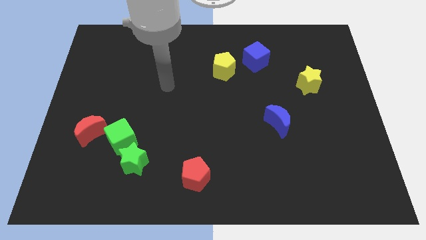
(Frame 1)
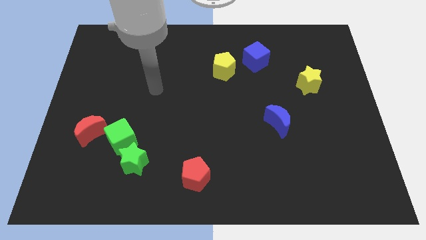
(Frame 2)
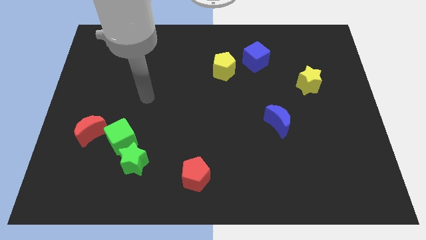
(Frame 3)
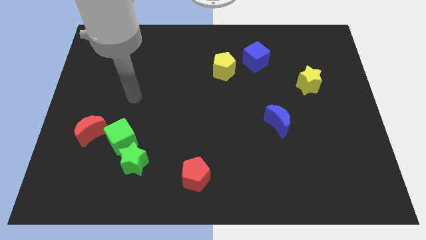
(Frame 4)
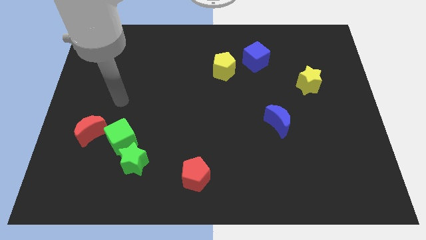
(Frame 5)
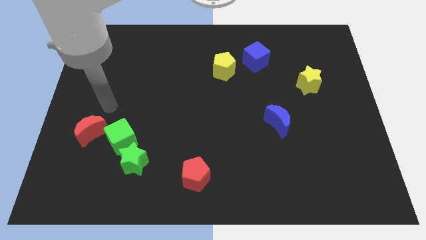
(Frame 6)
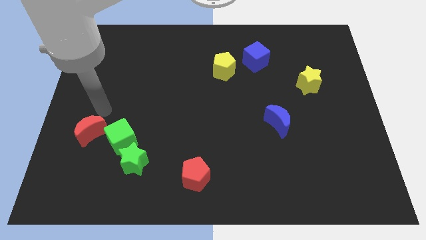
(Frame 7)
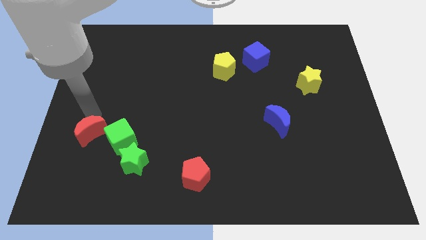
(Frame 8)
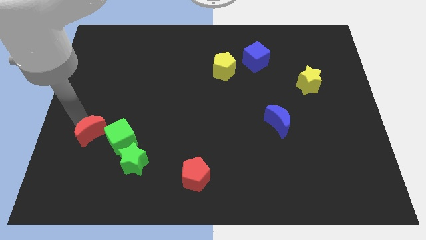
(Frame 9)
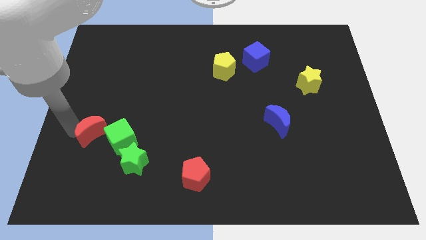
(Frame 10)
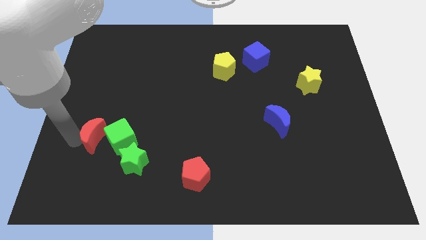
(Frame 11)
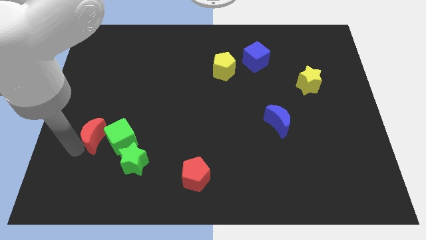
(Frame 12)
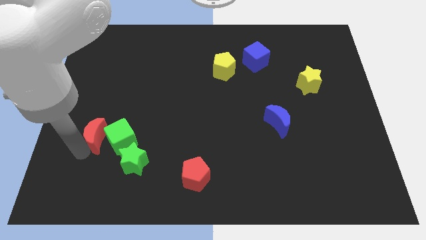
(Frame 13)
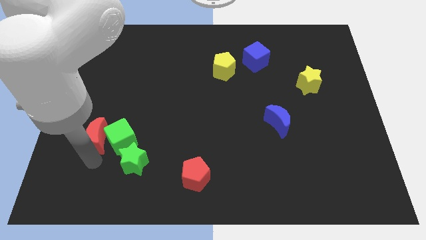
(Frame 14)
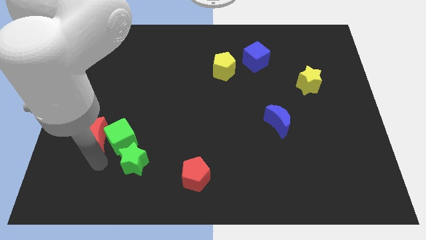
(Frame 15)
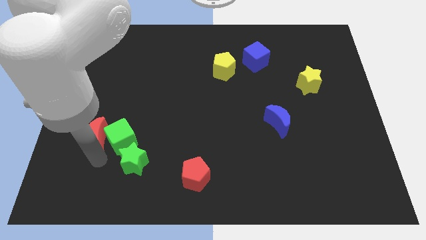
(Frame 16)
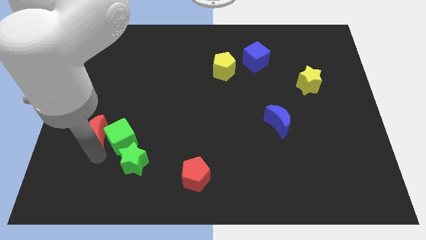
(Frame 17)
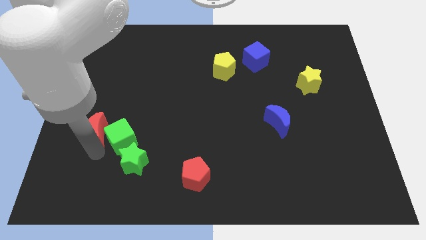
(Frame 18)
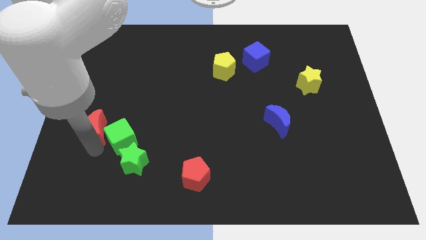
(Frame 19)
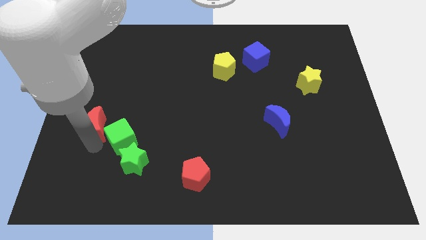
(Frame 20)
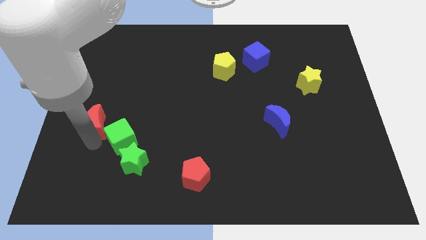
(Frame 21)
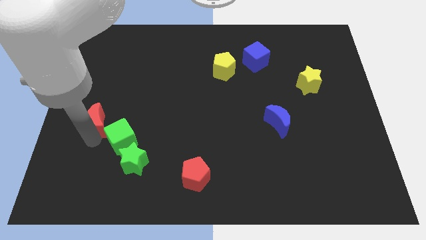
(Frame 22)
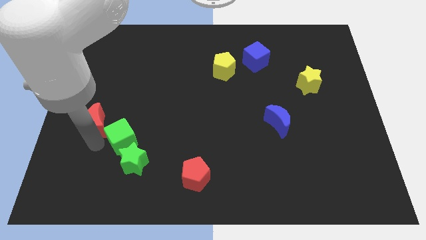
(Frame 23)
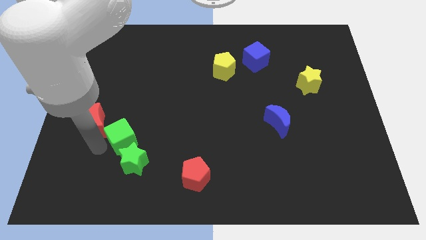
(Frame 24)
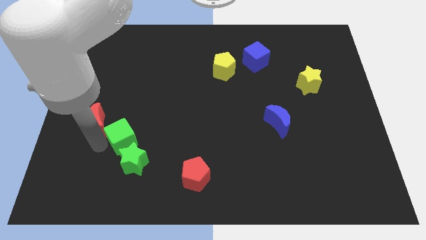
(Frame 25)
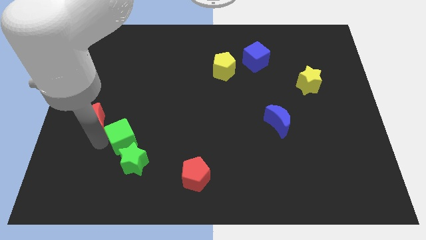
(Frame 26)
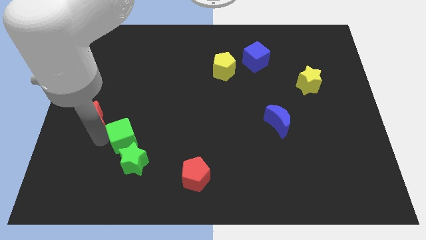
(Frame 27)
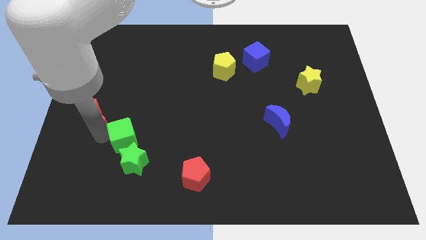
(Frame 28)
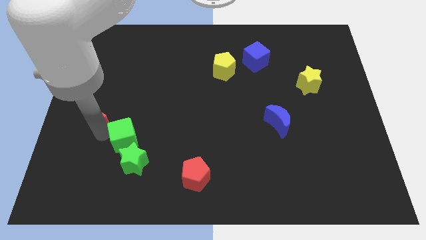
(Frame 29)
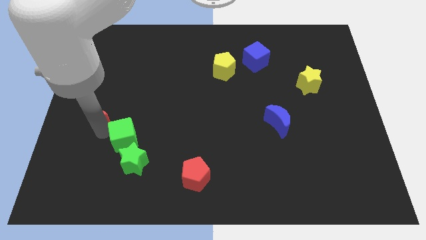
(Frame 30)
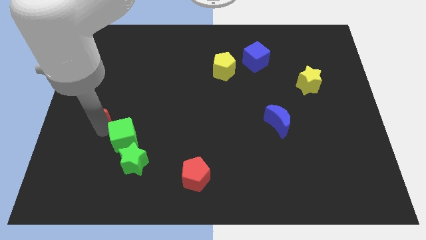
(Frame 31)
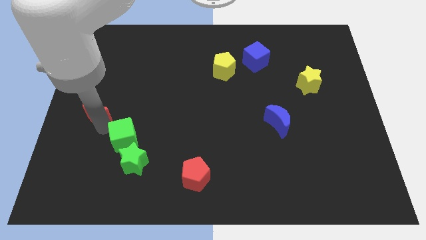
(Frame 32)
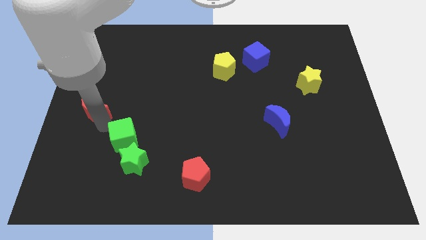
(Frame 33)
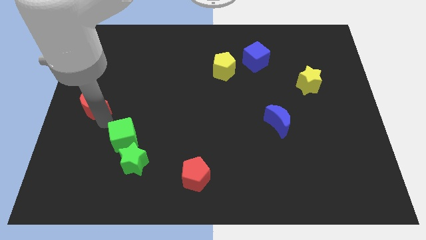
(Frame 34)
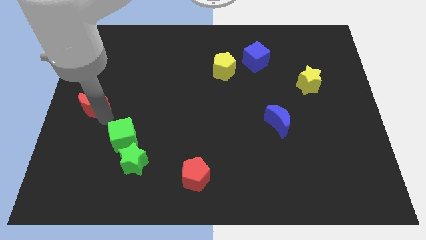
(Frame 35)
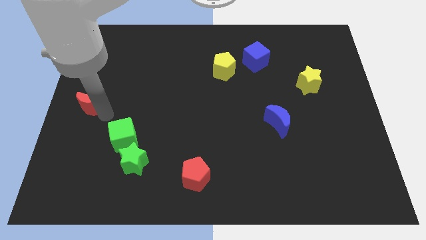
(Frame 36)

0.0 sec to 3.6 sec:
slide the red moon up slightly

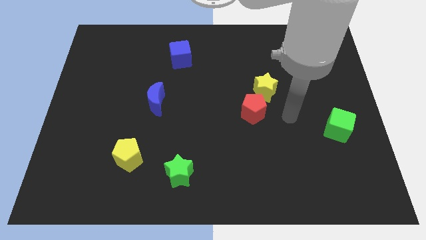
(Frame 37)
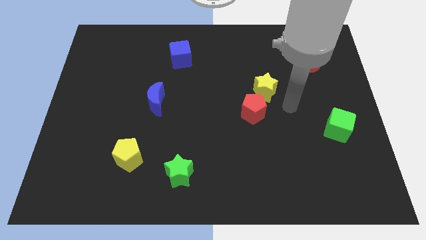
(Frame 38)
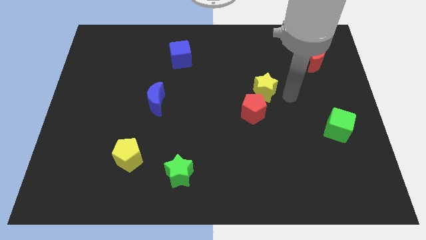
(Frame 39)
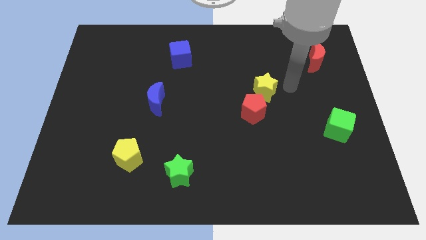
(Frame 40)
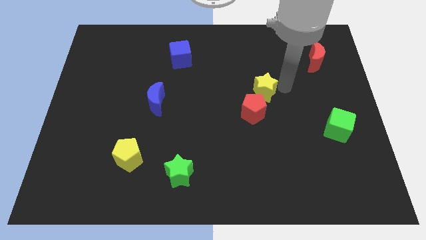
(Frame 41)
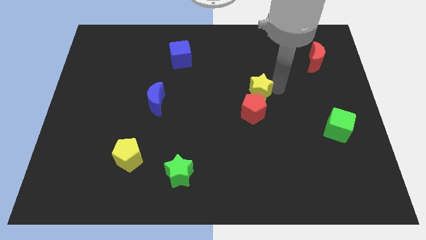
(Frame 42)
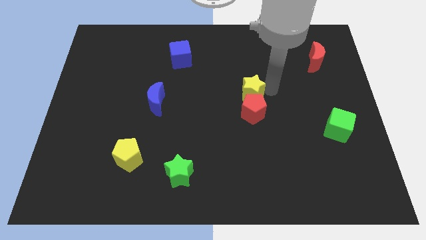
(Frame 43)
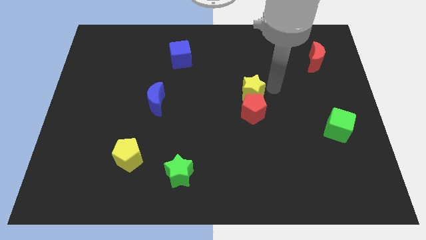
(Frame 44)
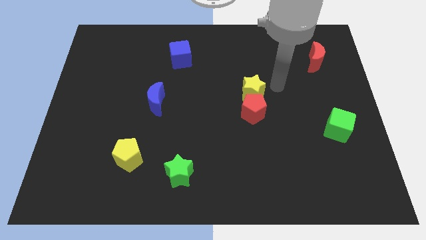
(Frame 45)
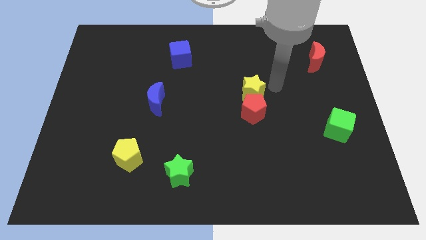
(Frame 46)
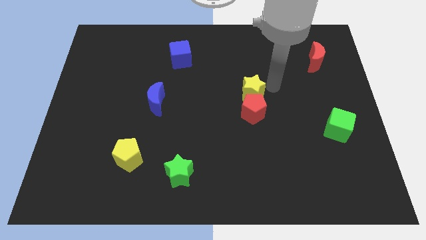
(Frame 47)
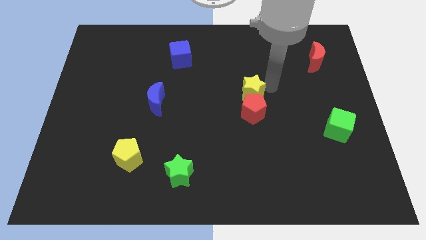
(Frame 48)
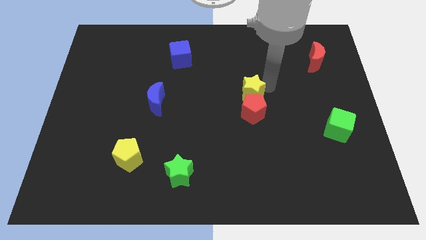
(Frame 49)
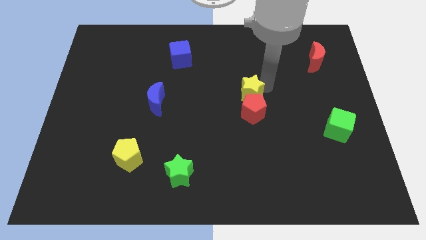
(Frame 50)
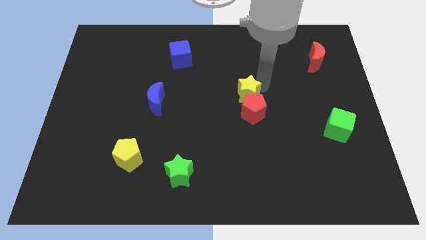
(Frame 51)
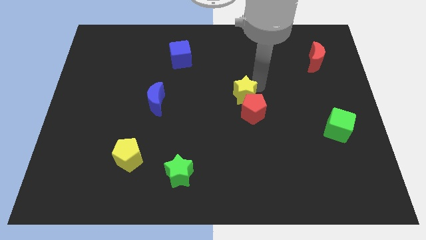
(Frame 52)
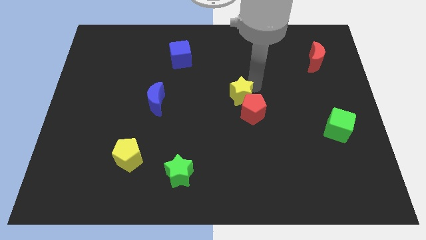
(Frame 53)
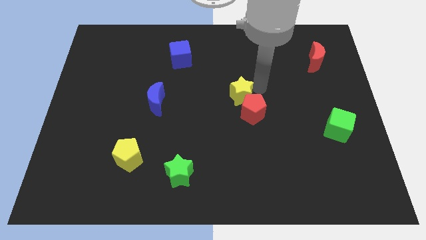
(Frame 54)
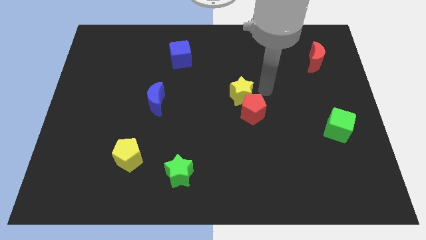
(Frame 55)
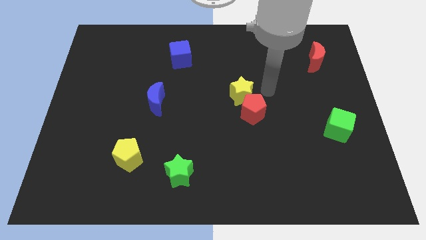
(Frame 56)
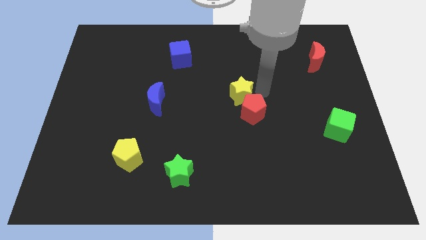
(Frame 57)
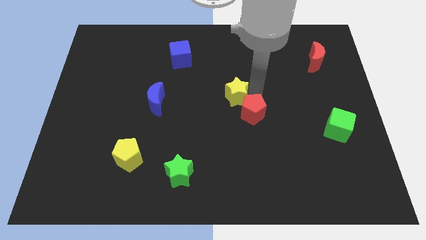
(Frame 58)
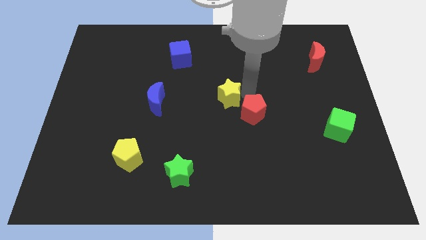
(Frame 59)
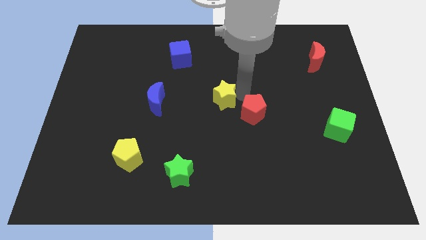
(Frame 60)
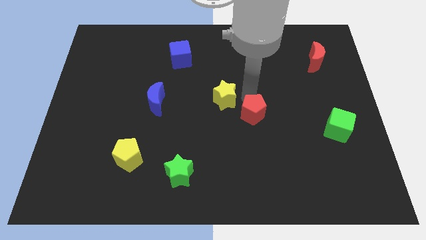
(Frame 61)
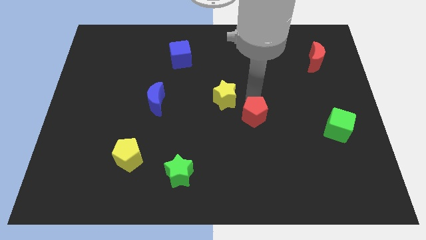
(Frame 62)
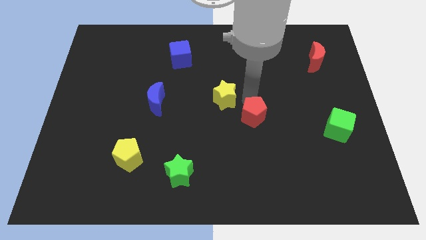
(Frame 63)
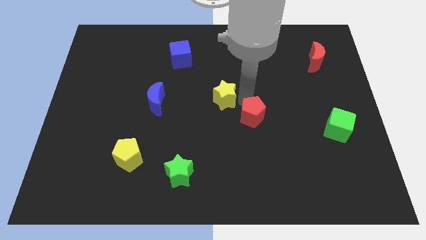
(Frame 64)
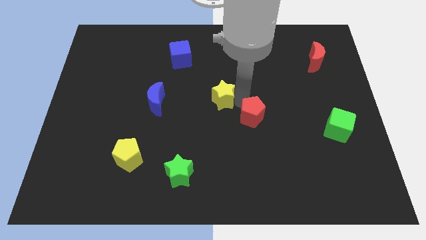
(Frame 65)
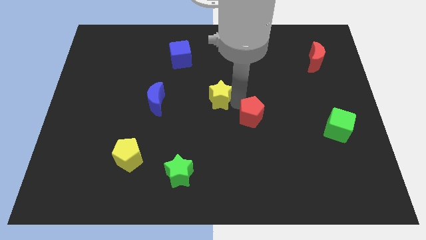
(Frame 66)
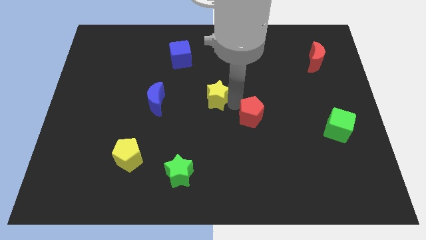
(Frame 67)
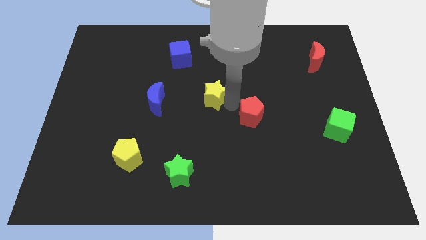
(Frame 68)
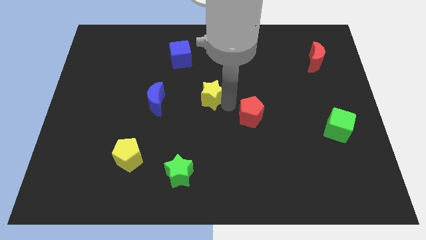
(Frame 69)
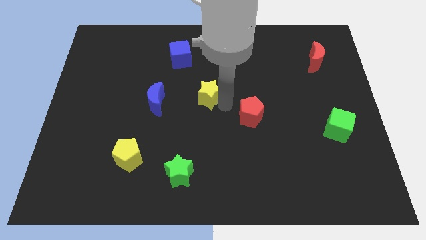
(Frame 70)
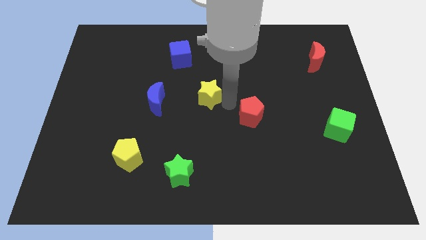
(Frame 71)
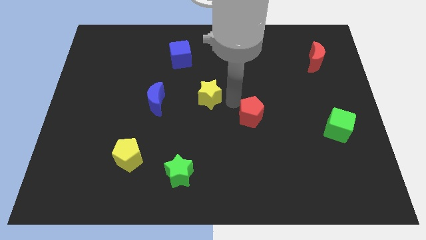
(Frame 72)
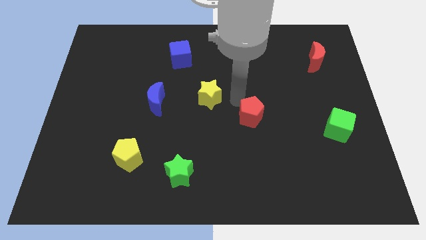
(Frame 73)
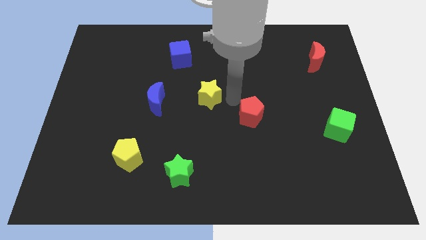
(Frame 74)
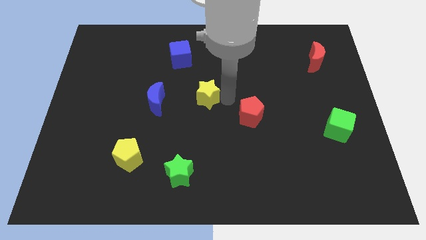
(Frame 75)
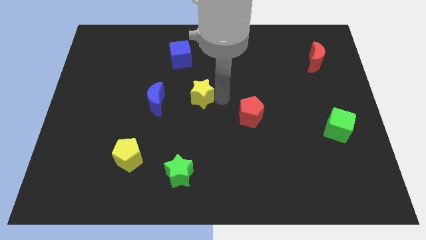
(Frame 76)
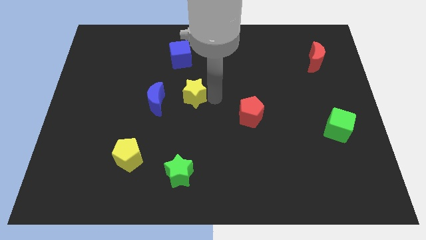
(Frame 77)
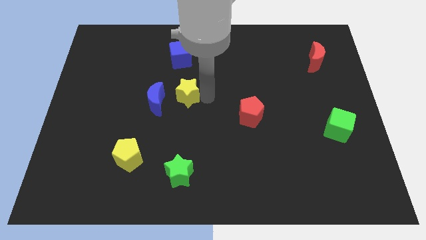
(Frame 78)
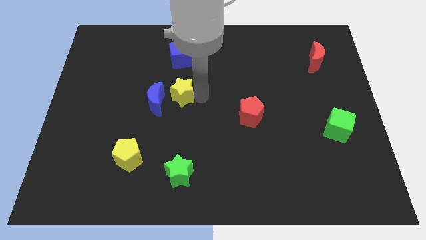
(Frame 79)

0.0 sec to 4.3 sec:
move the yellow star to the left

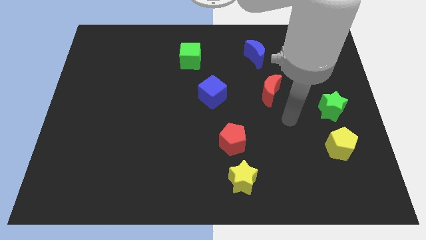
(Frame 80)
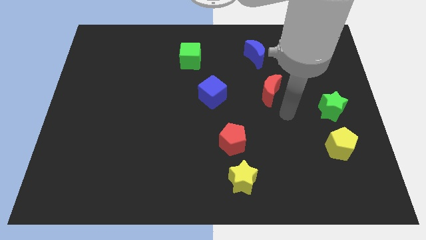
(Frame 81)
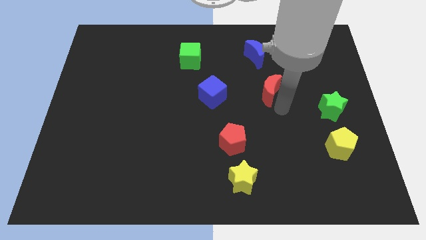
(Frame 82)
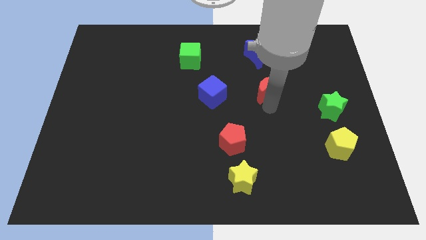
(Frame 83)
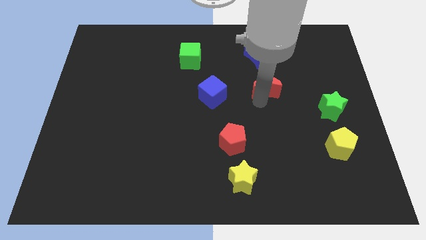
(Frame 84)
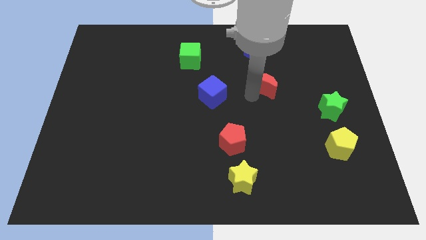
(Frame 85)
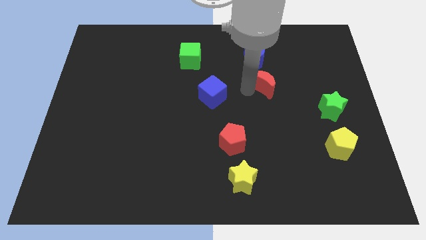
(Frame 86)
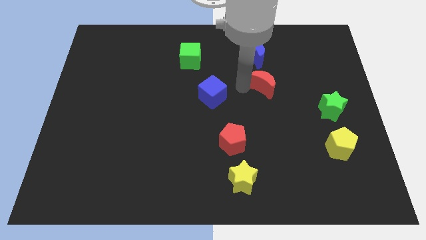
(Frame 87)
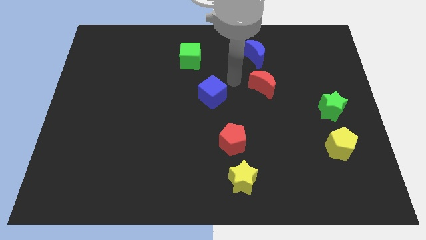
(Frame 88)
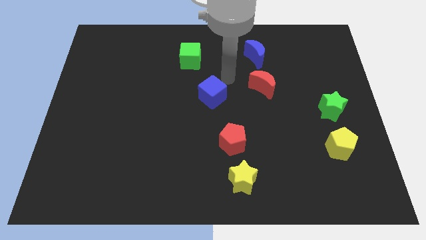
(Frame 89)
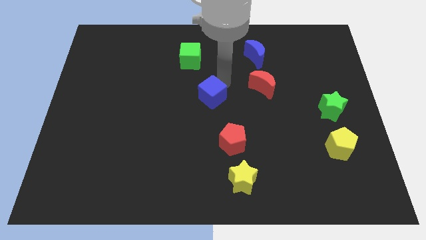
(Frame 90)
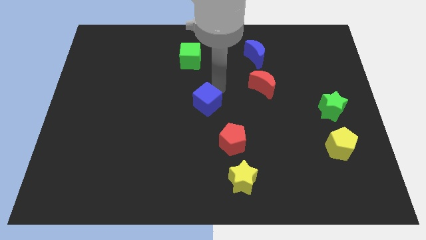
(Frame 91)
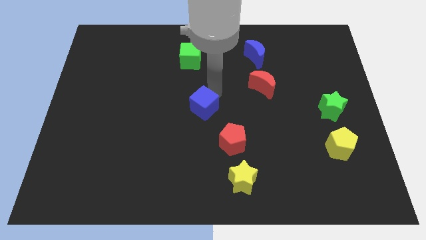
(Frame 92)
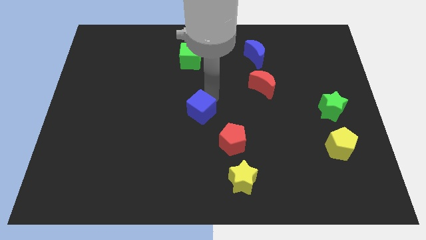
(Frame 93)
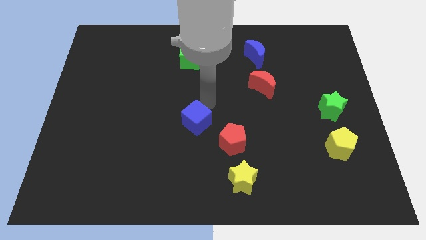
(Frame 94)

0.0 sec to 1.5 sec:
slightly slide the blue cube downwards and to the left
